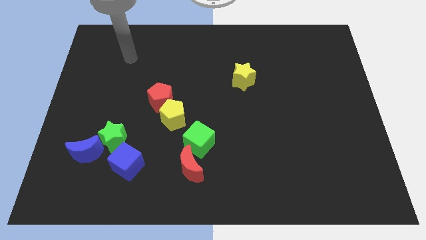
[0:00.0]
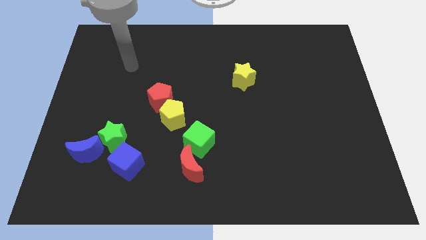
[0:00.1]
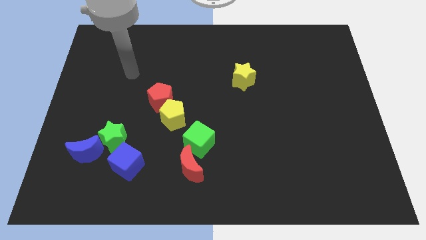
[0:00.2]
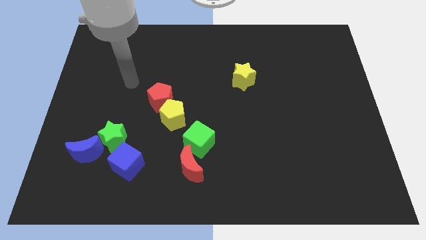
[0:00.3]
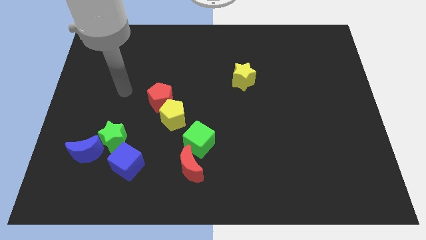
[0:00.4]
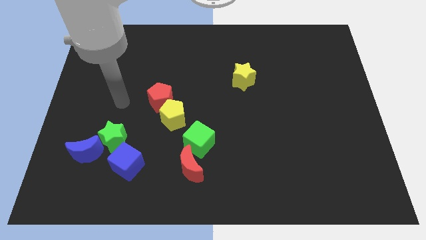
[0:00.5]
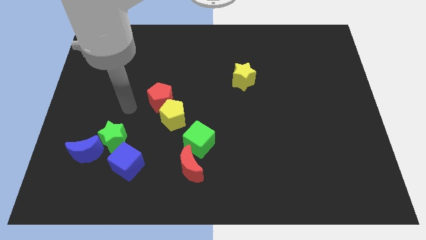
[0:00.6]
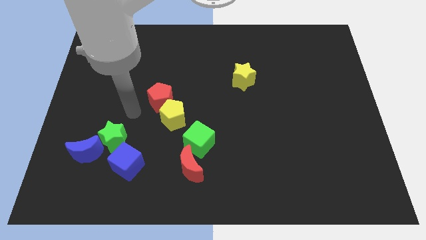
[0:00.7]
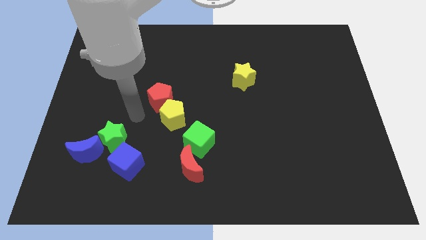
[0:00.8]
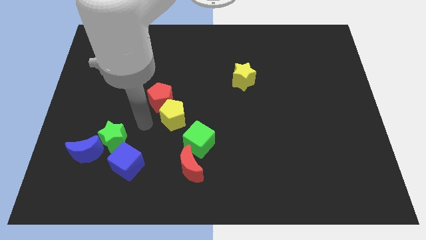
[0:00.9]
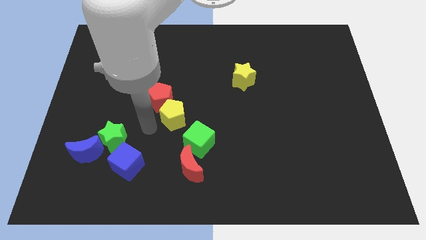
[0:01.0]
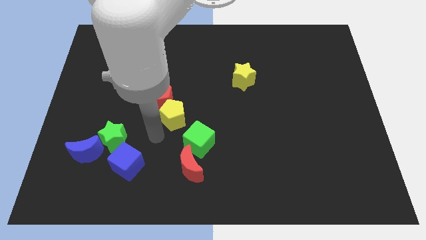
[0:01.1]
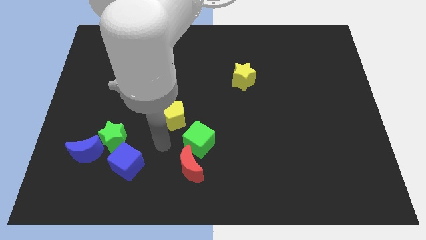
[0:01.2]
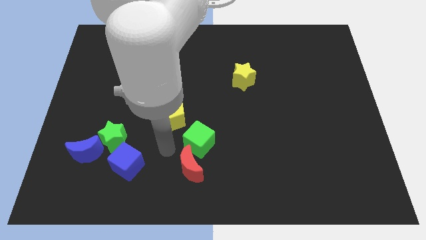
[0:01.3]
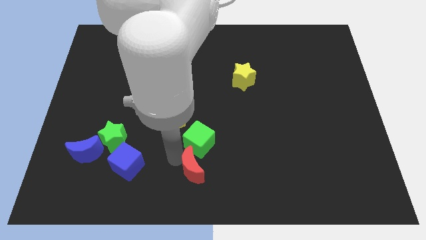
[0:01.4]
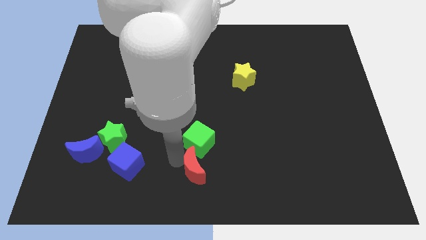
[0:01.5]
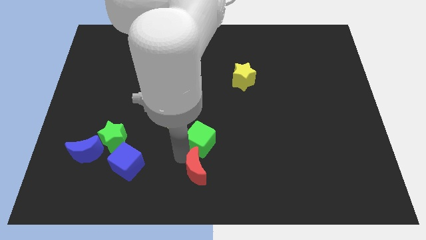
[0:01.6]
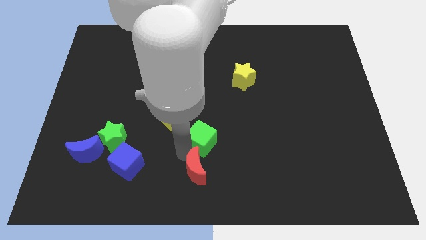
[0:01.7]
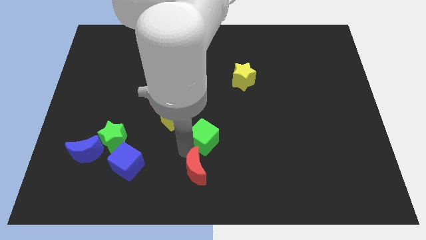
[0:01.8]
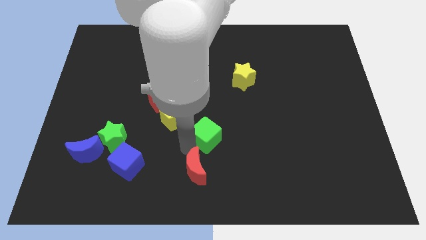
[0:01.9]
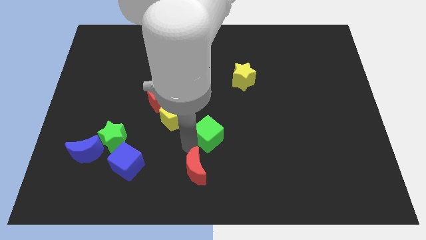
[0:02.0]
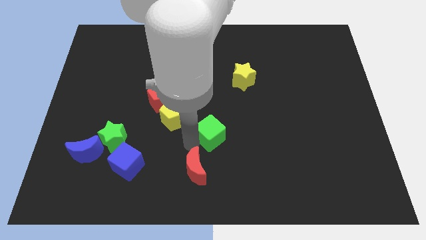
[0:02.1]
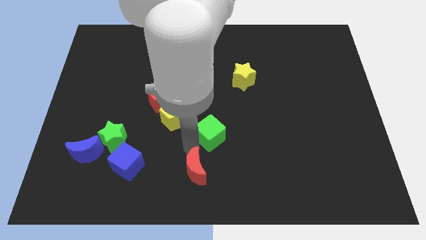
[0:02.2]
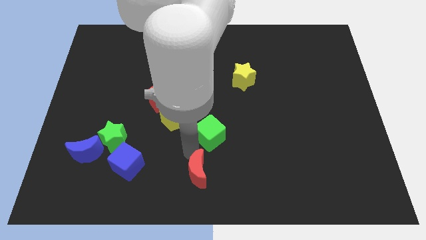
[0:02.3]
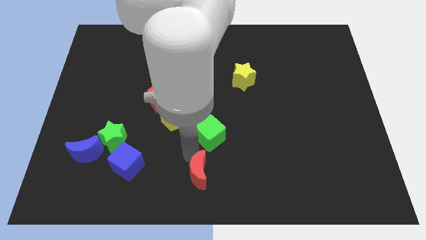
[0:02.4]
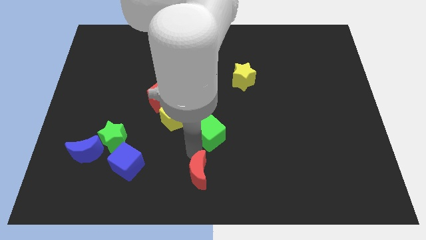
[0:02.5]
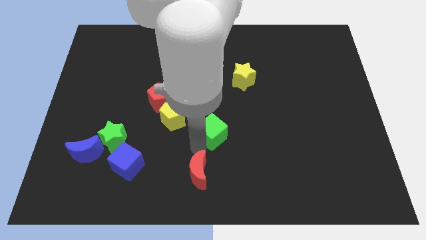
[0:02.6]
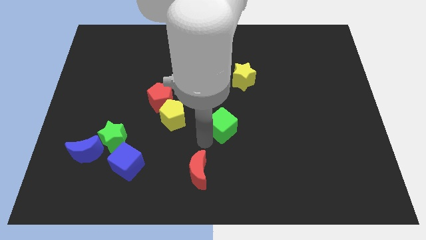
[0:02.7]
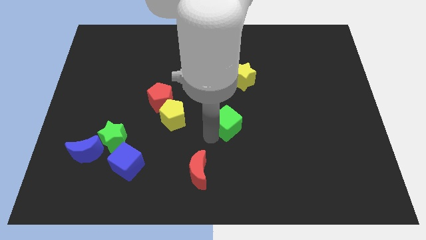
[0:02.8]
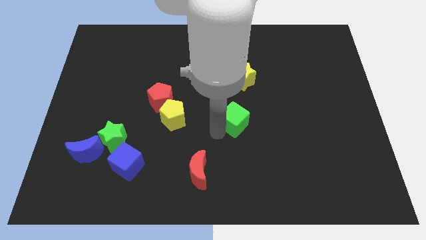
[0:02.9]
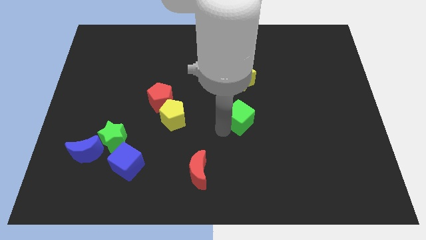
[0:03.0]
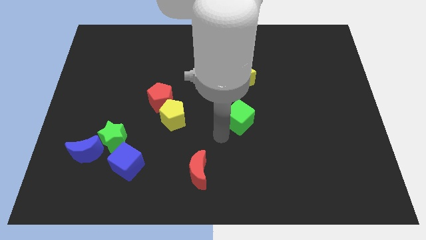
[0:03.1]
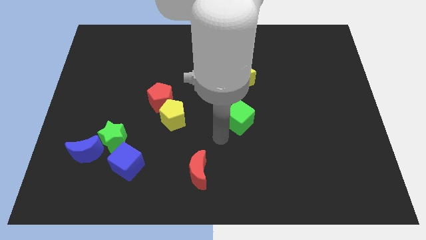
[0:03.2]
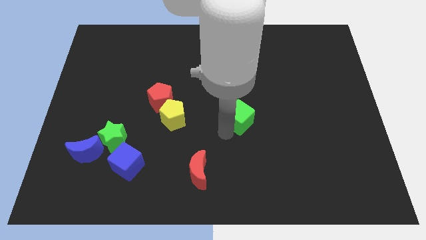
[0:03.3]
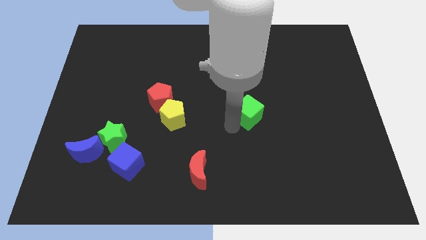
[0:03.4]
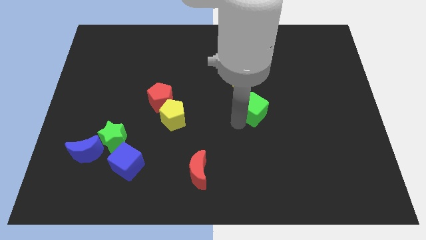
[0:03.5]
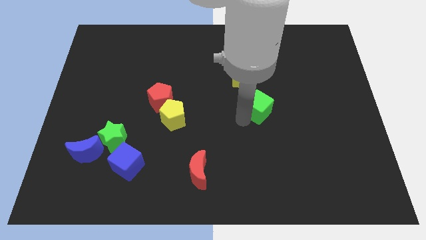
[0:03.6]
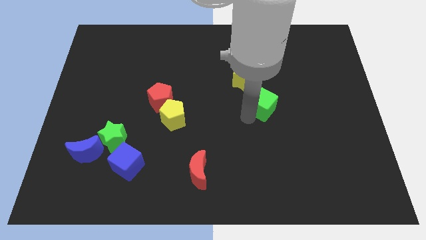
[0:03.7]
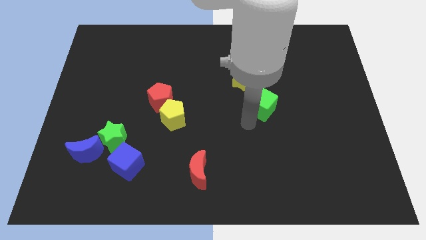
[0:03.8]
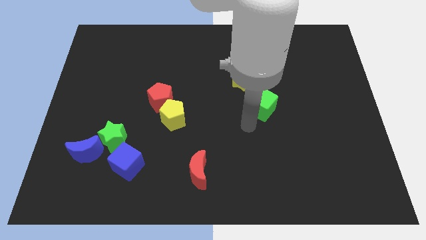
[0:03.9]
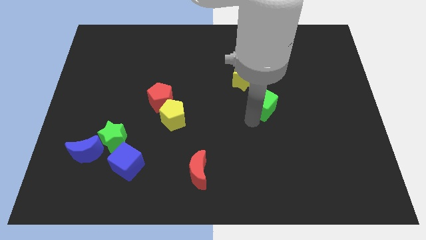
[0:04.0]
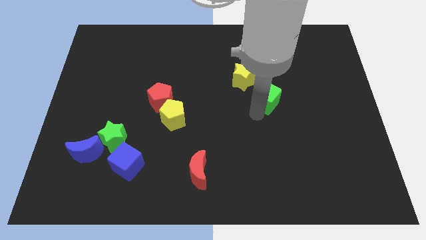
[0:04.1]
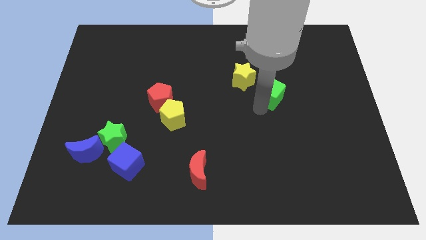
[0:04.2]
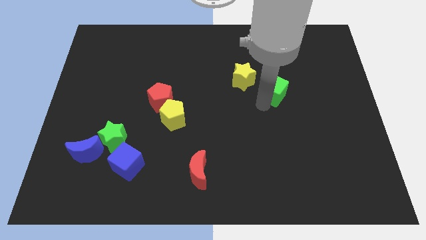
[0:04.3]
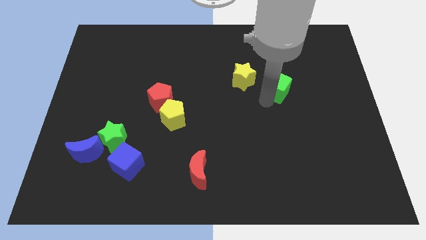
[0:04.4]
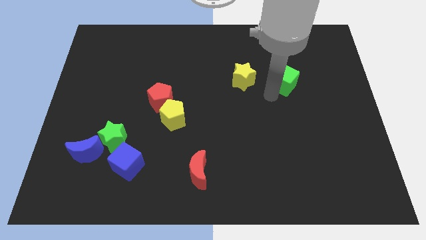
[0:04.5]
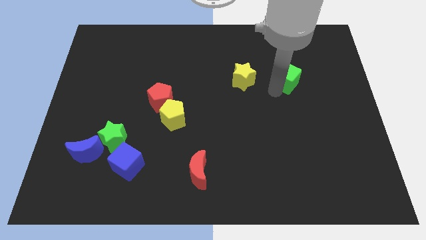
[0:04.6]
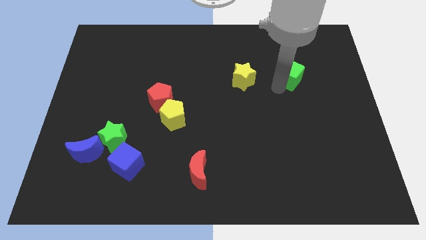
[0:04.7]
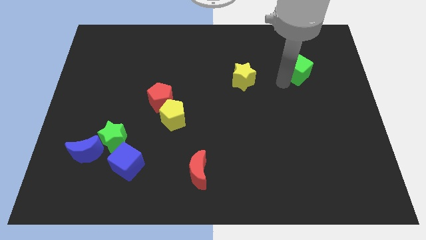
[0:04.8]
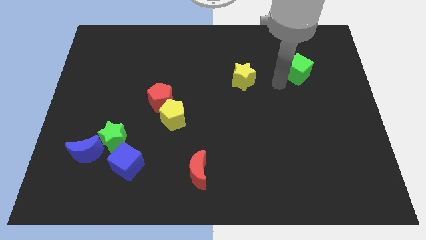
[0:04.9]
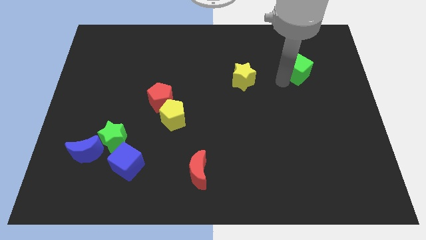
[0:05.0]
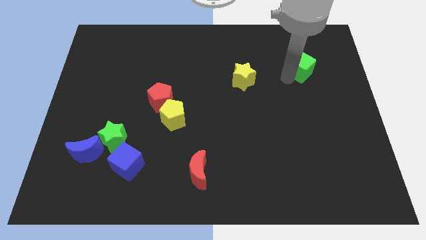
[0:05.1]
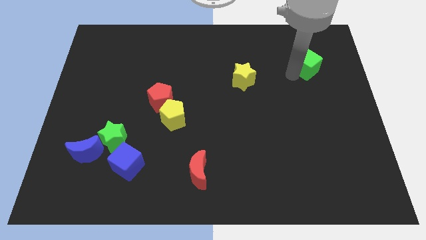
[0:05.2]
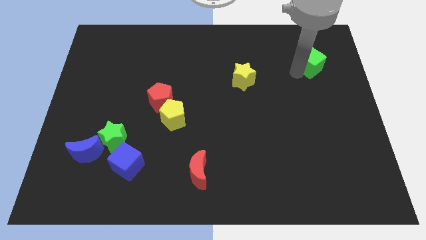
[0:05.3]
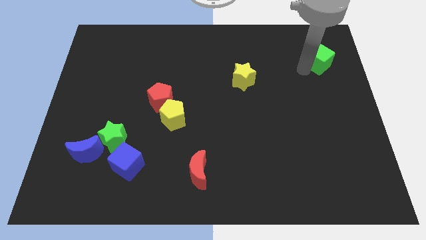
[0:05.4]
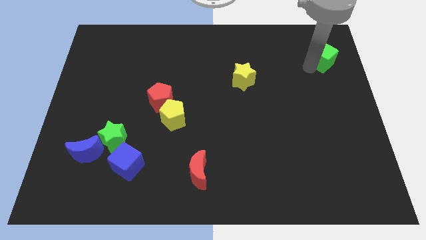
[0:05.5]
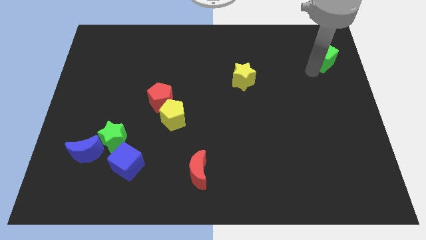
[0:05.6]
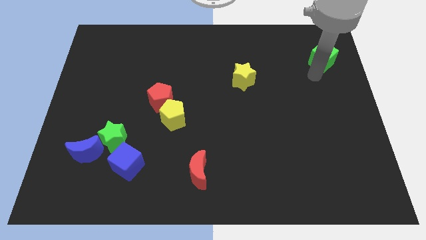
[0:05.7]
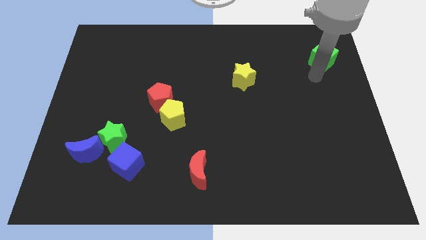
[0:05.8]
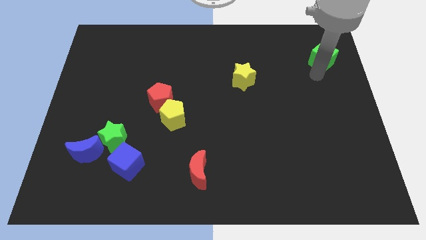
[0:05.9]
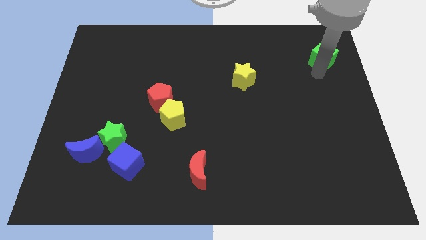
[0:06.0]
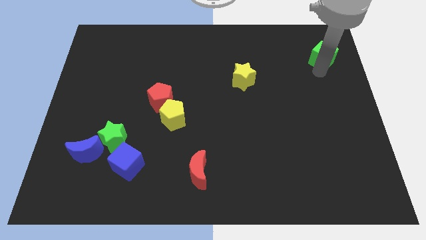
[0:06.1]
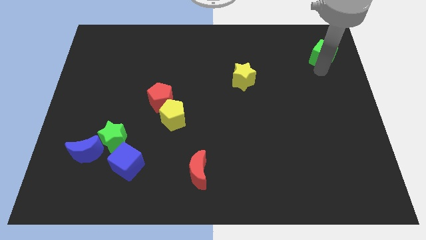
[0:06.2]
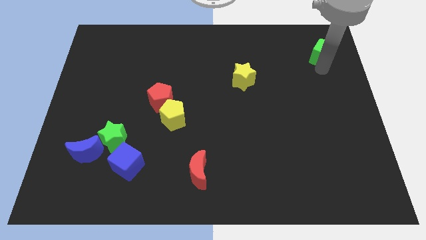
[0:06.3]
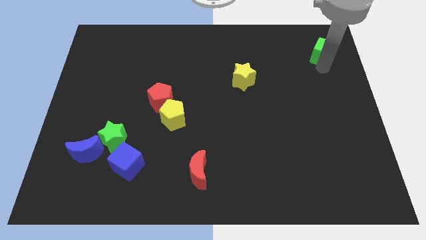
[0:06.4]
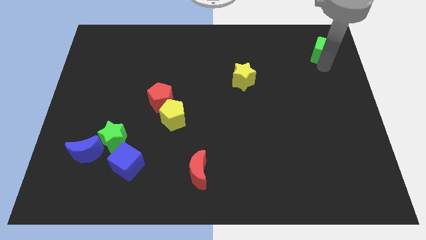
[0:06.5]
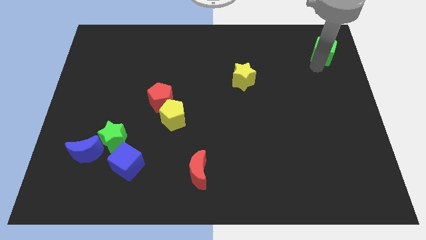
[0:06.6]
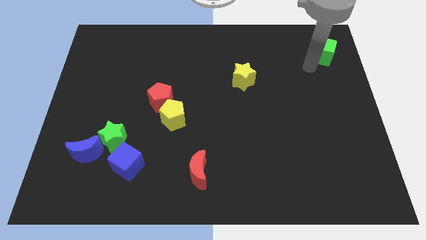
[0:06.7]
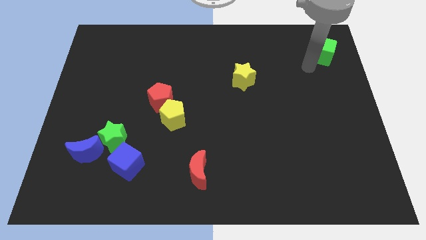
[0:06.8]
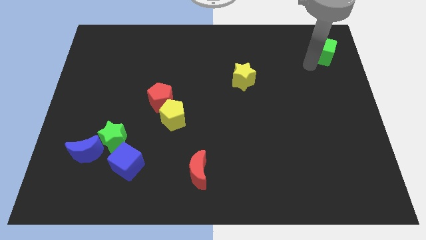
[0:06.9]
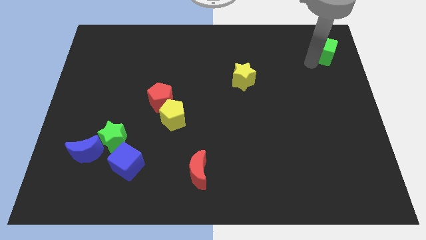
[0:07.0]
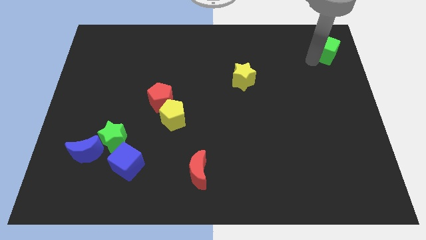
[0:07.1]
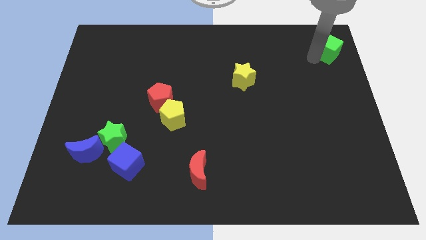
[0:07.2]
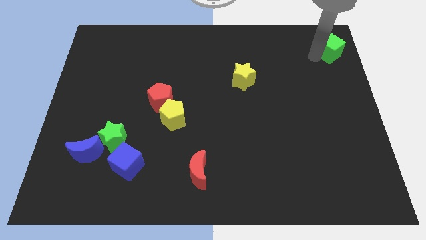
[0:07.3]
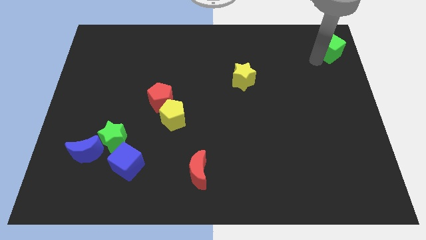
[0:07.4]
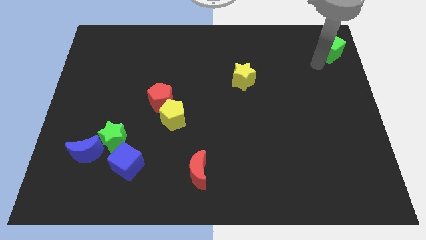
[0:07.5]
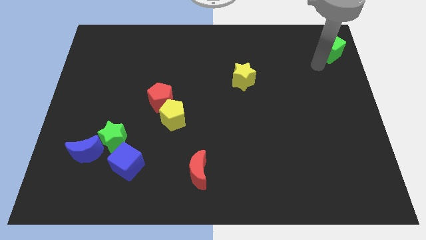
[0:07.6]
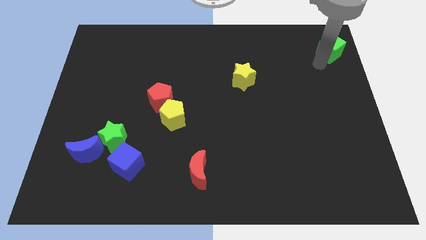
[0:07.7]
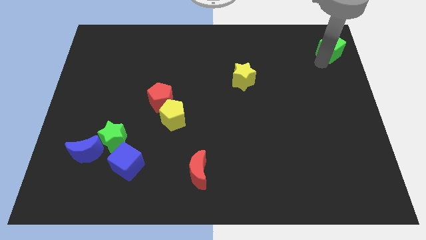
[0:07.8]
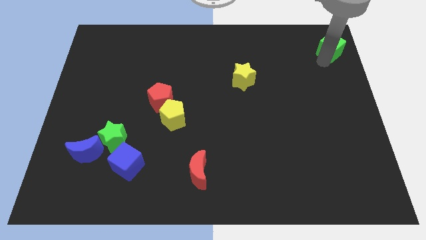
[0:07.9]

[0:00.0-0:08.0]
push the green cube to the top right corner
